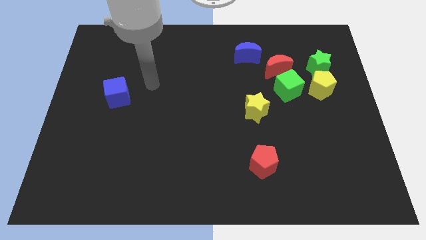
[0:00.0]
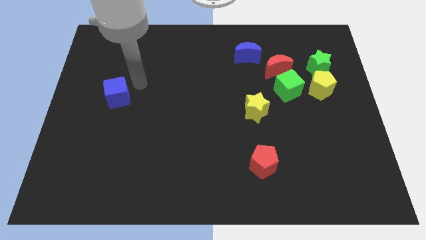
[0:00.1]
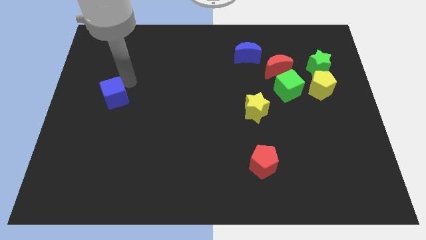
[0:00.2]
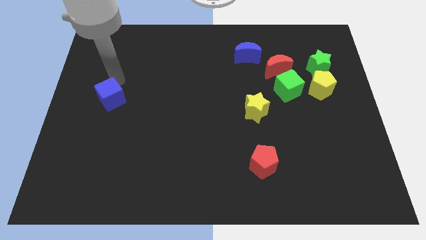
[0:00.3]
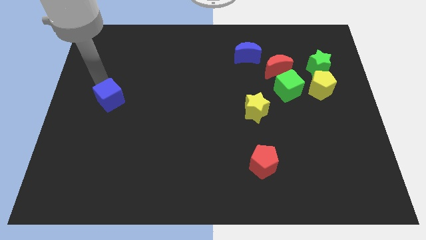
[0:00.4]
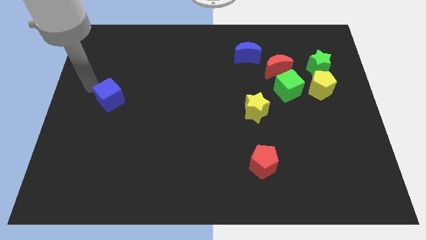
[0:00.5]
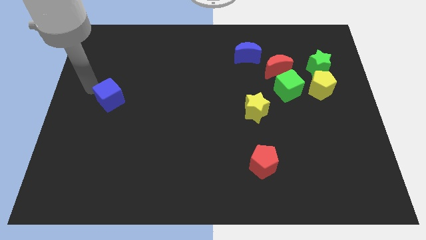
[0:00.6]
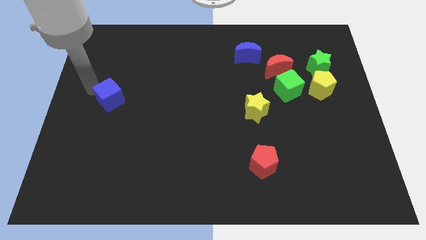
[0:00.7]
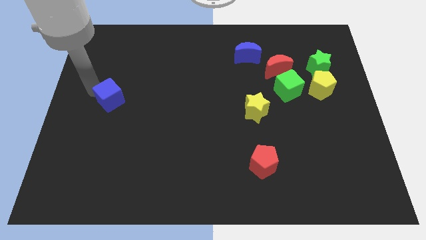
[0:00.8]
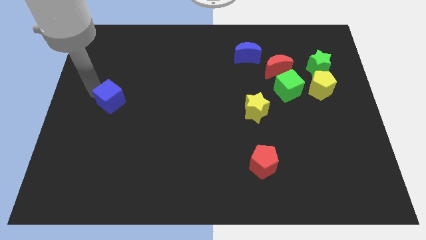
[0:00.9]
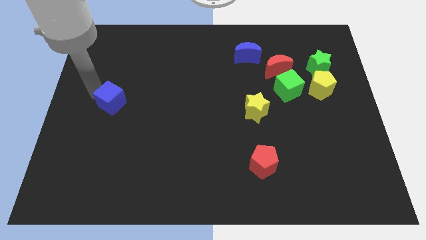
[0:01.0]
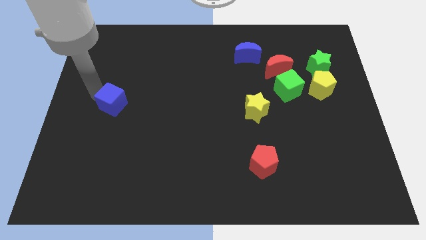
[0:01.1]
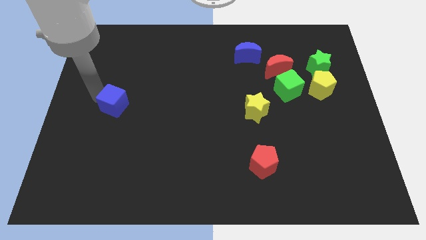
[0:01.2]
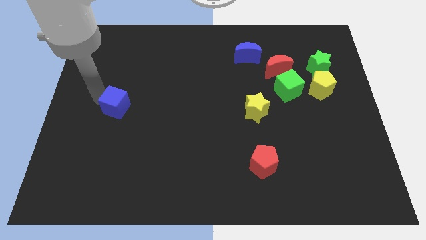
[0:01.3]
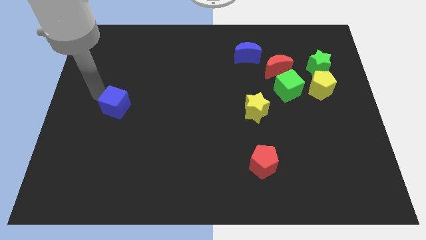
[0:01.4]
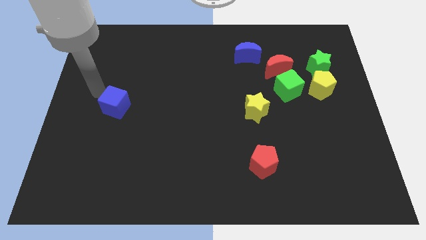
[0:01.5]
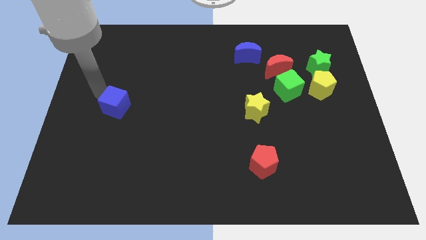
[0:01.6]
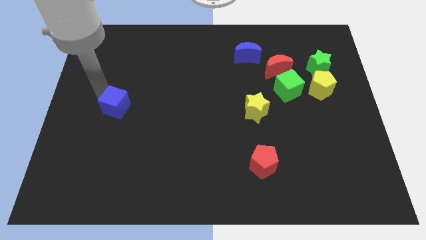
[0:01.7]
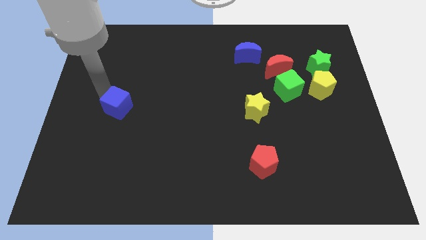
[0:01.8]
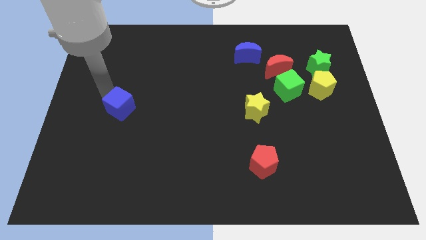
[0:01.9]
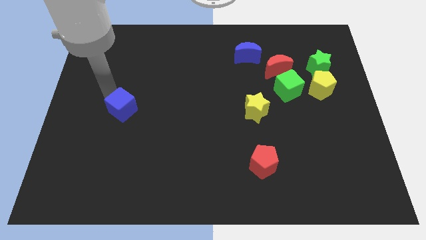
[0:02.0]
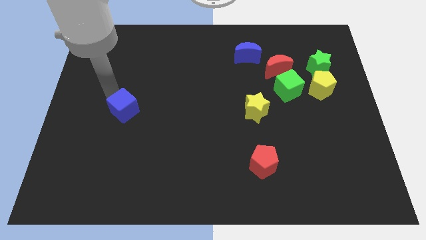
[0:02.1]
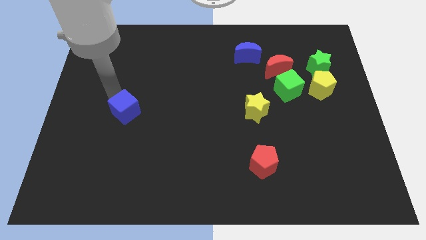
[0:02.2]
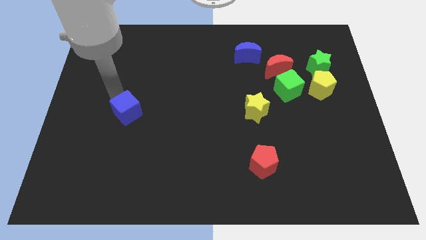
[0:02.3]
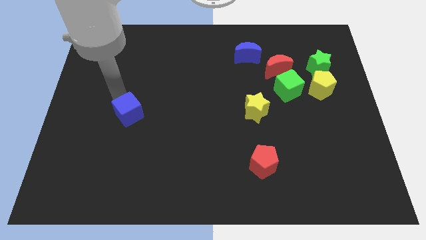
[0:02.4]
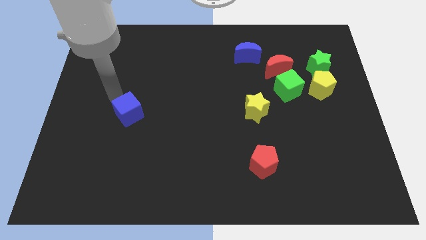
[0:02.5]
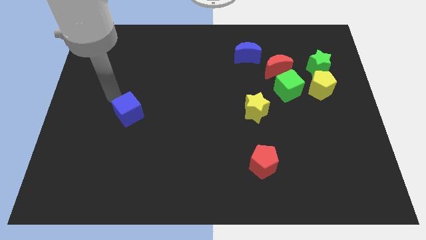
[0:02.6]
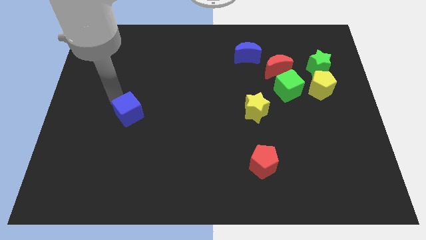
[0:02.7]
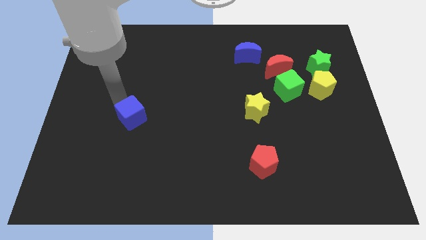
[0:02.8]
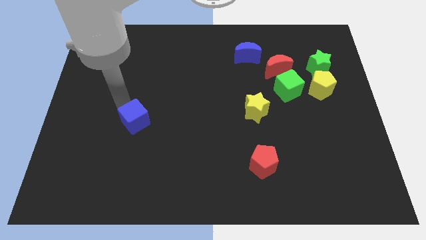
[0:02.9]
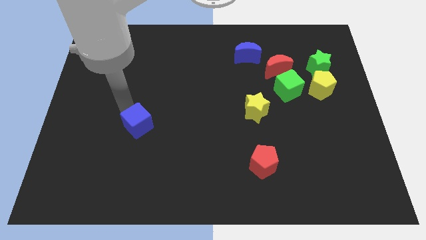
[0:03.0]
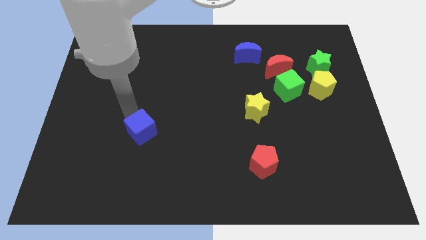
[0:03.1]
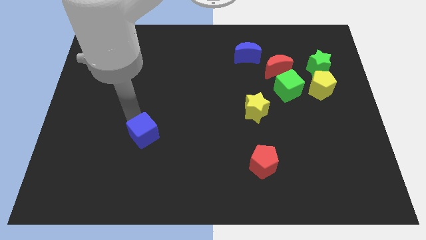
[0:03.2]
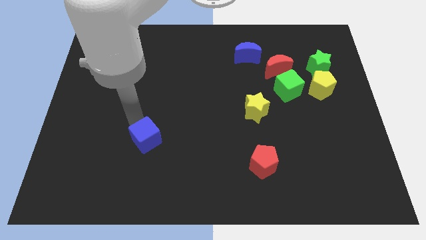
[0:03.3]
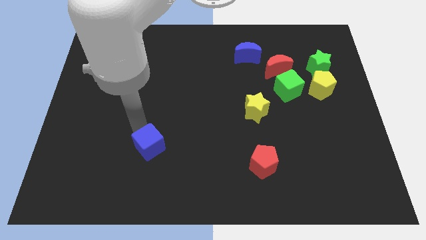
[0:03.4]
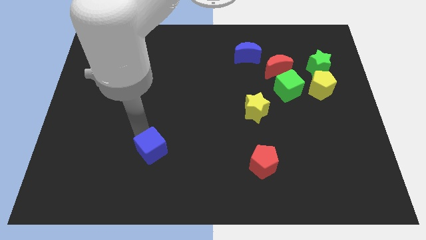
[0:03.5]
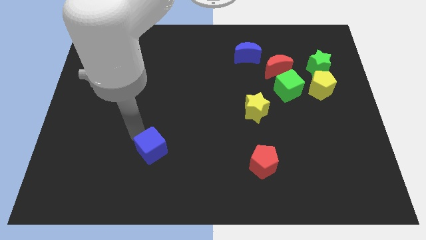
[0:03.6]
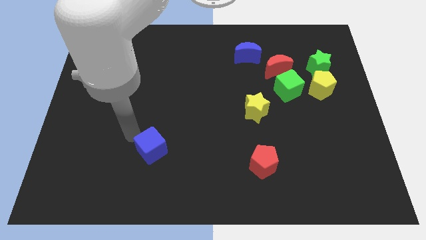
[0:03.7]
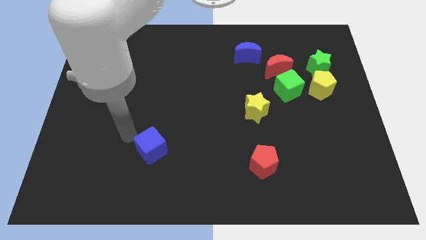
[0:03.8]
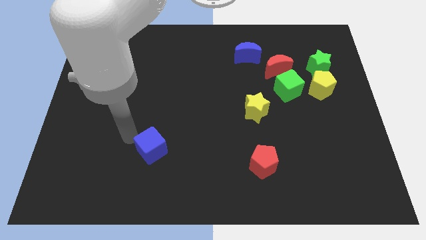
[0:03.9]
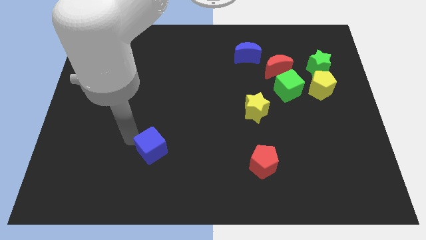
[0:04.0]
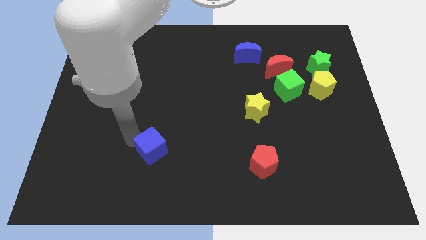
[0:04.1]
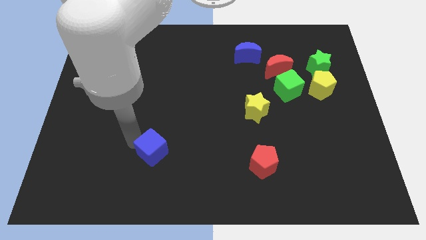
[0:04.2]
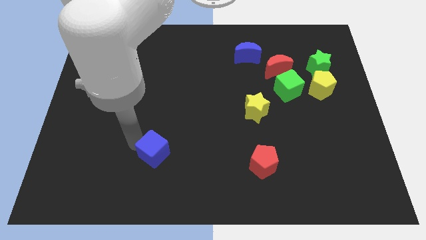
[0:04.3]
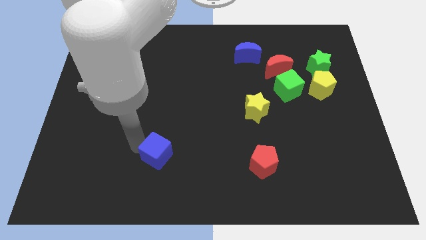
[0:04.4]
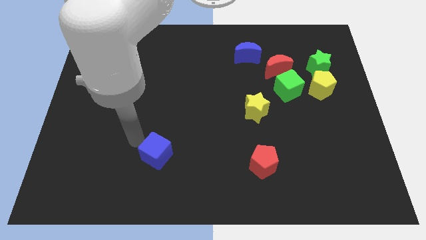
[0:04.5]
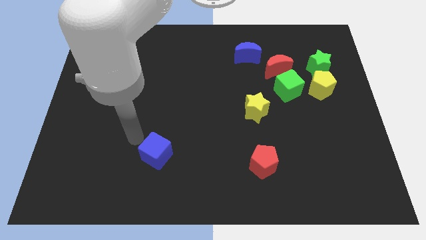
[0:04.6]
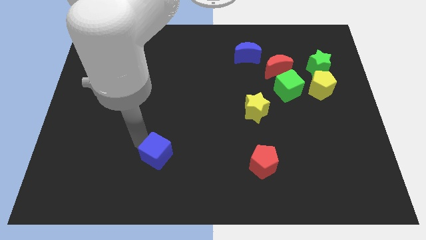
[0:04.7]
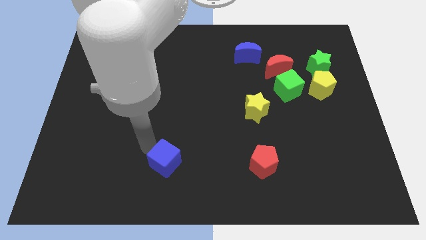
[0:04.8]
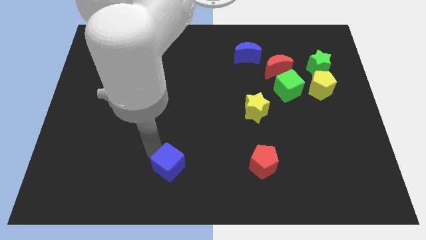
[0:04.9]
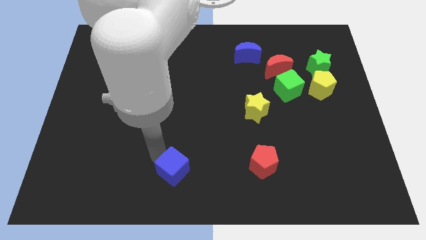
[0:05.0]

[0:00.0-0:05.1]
put the blue cube to the bottom

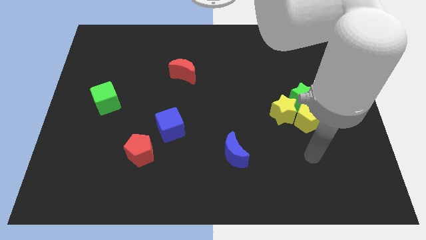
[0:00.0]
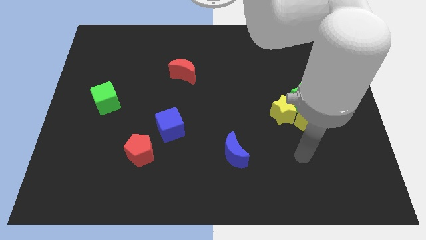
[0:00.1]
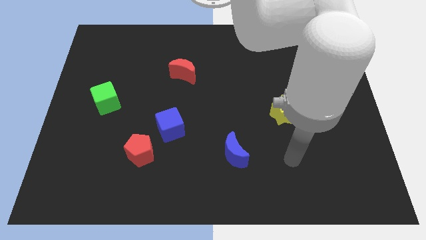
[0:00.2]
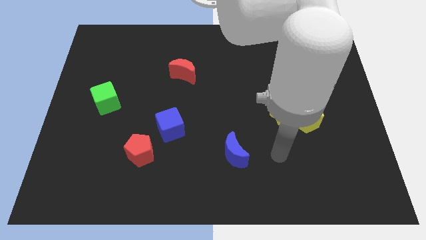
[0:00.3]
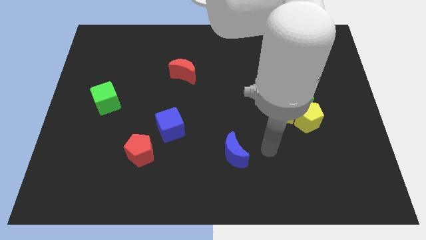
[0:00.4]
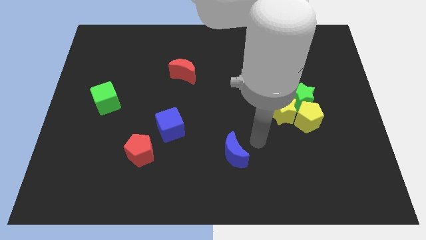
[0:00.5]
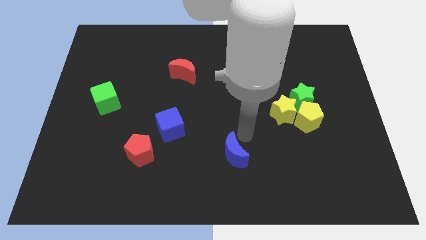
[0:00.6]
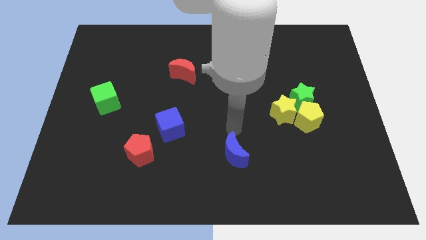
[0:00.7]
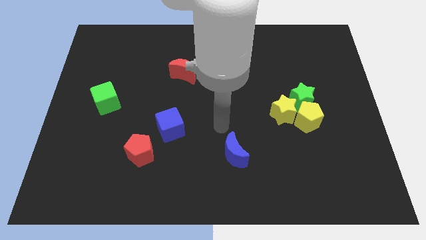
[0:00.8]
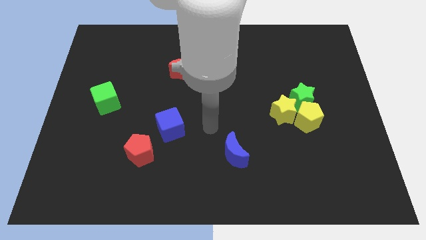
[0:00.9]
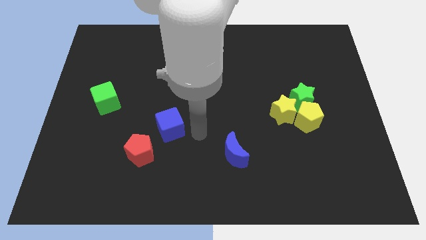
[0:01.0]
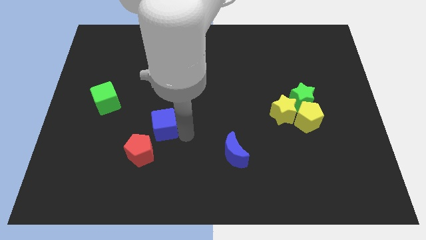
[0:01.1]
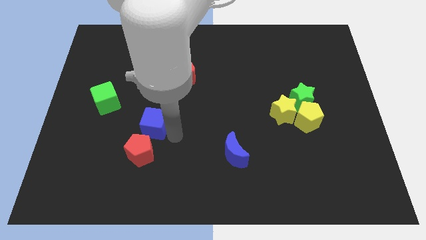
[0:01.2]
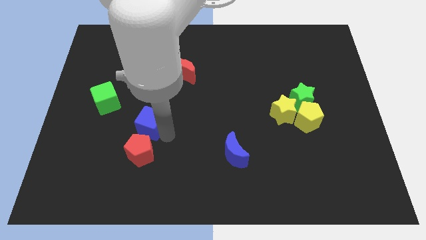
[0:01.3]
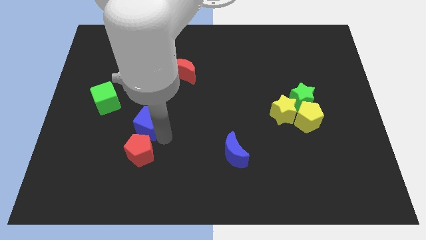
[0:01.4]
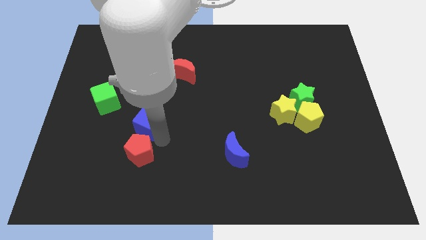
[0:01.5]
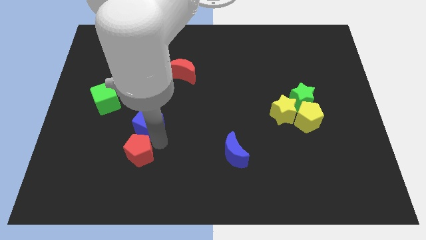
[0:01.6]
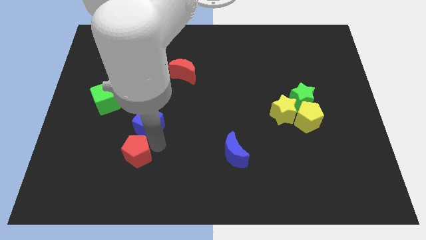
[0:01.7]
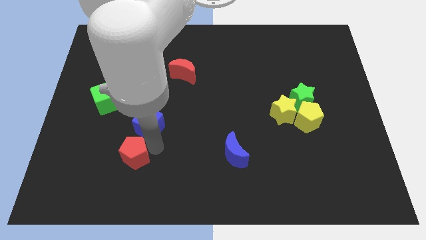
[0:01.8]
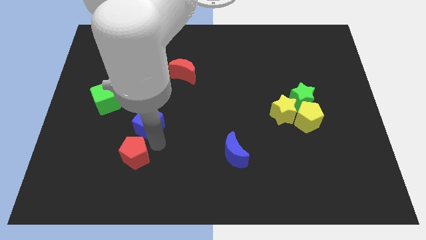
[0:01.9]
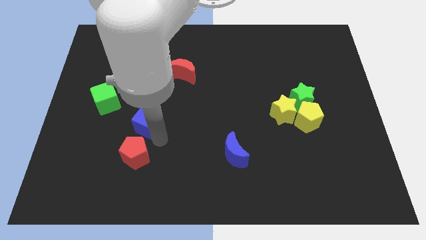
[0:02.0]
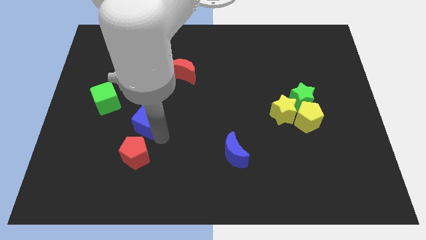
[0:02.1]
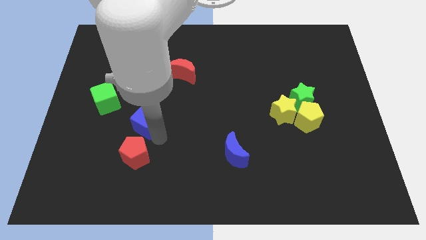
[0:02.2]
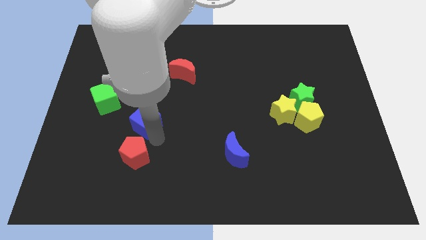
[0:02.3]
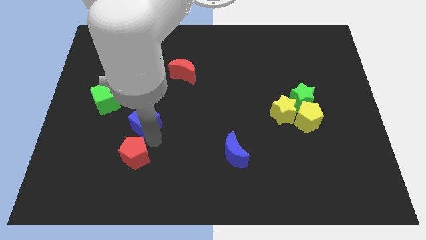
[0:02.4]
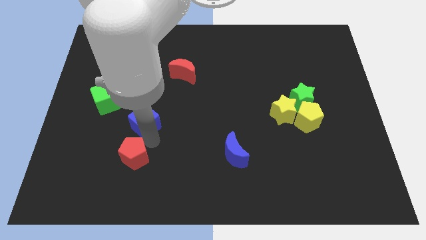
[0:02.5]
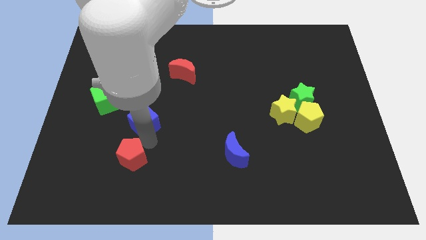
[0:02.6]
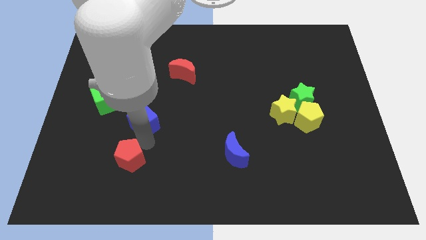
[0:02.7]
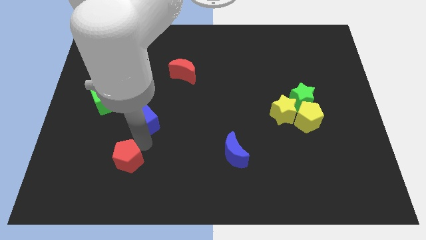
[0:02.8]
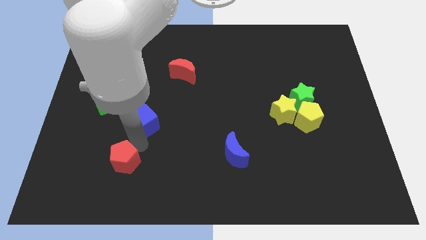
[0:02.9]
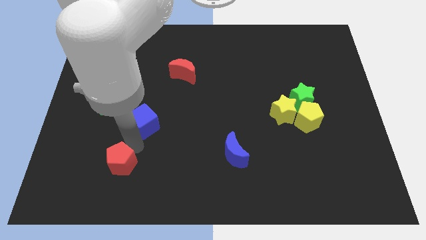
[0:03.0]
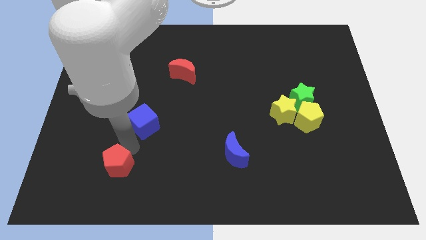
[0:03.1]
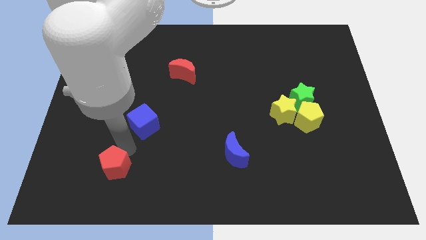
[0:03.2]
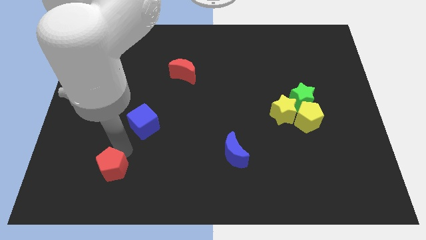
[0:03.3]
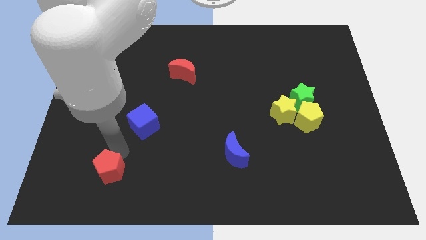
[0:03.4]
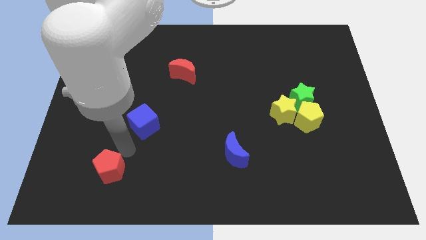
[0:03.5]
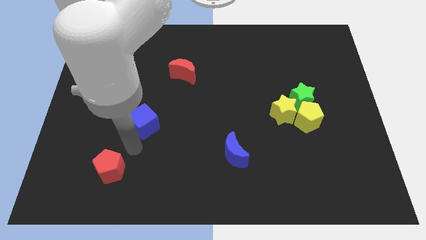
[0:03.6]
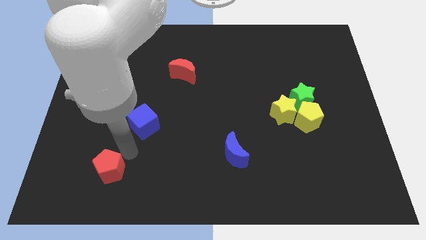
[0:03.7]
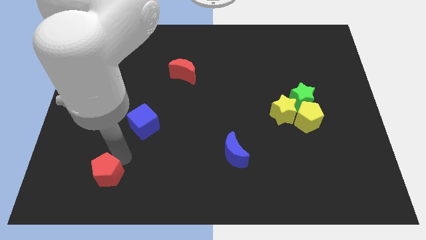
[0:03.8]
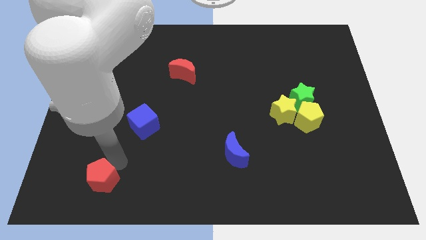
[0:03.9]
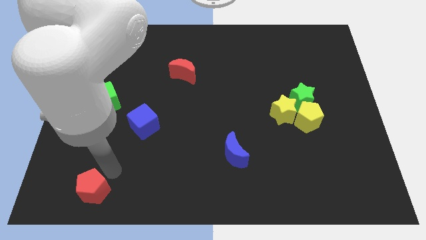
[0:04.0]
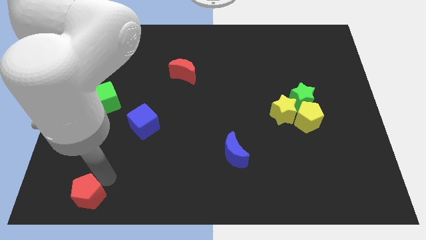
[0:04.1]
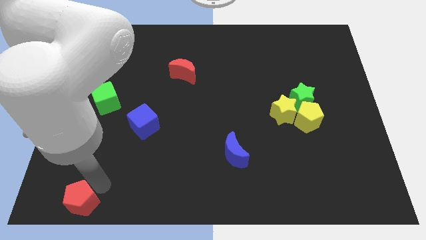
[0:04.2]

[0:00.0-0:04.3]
push the red pentagon to the bottom left of the board
